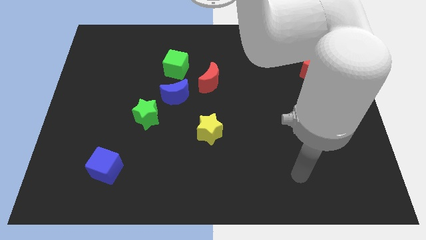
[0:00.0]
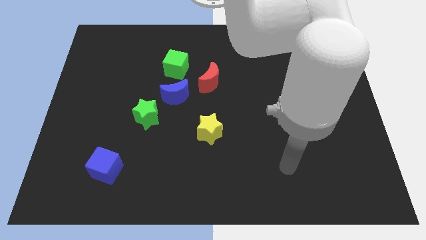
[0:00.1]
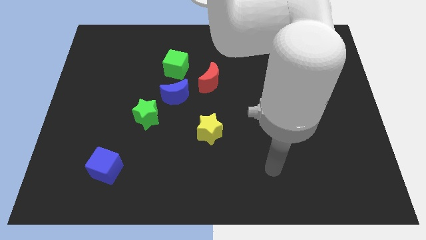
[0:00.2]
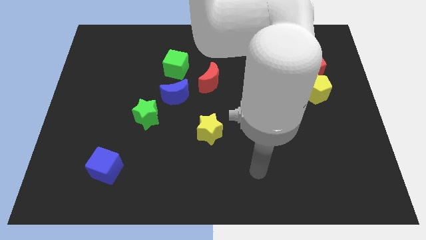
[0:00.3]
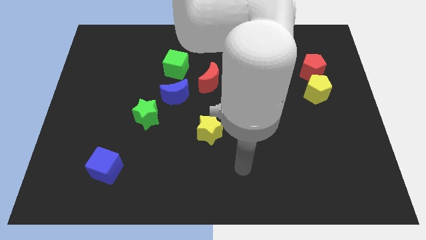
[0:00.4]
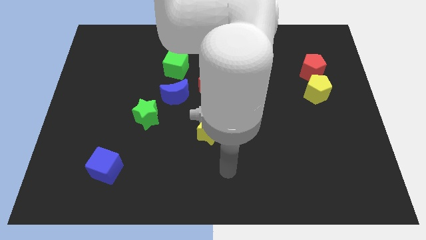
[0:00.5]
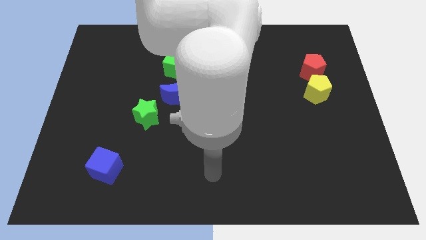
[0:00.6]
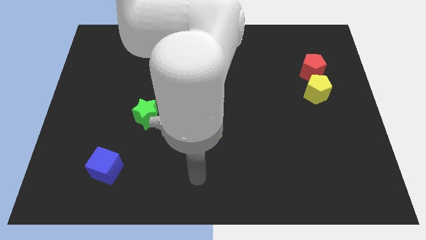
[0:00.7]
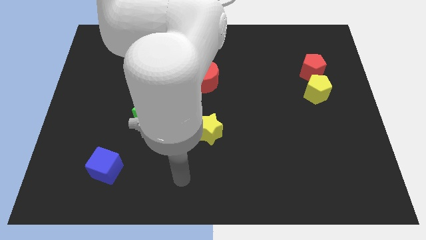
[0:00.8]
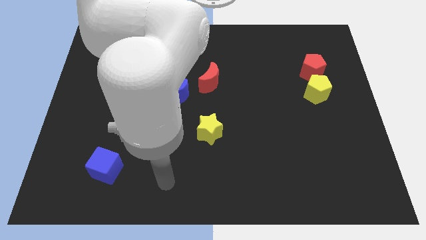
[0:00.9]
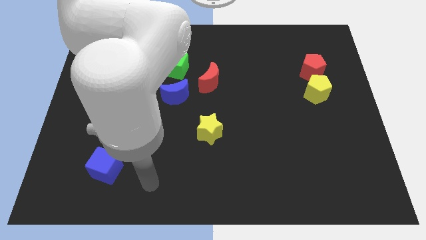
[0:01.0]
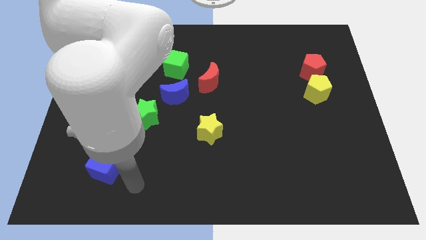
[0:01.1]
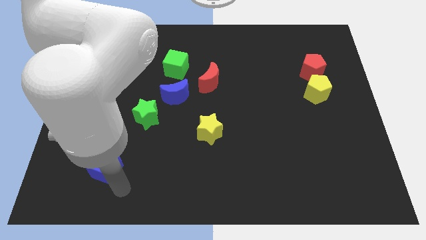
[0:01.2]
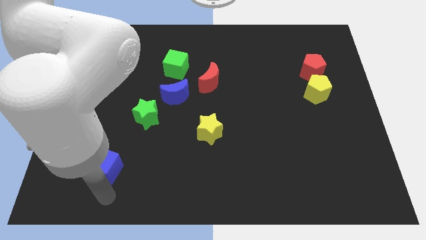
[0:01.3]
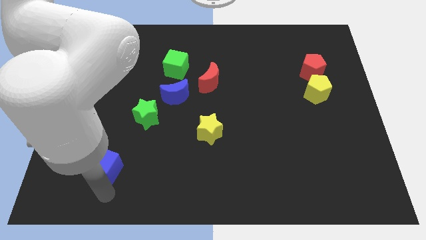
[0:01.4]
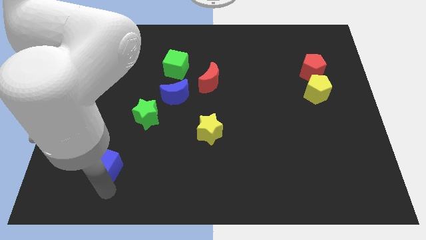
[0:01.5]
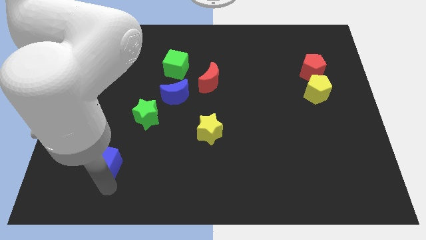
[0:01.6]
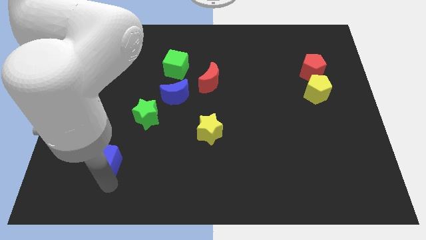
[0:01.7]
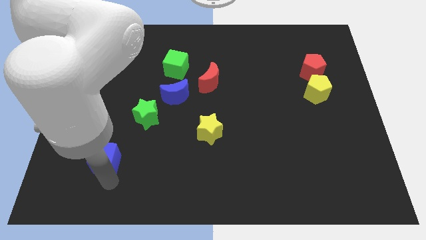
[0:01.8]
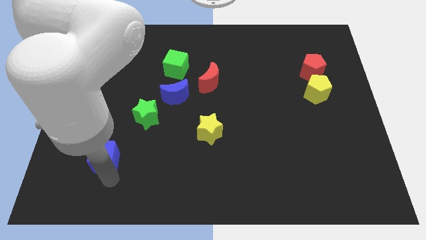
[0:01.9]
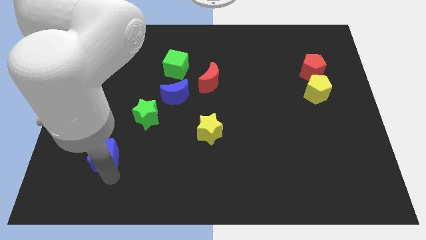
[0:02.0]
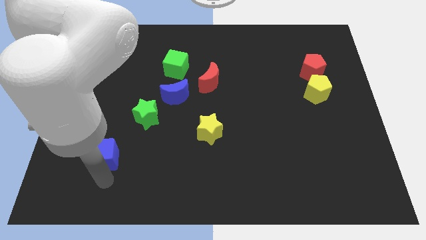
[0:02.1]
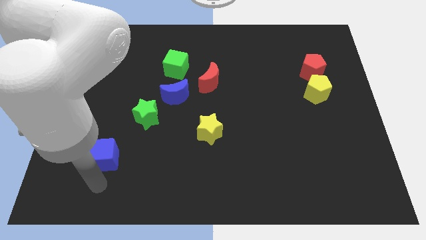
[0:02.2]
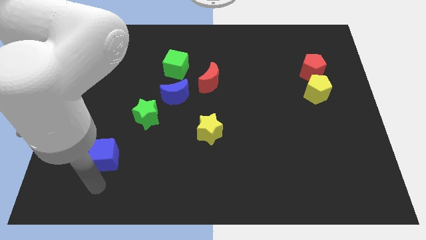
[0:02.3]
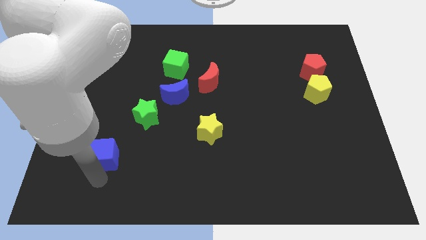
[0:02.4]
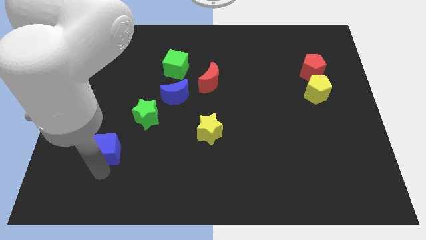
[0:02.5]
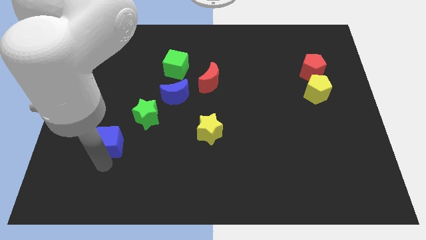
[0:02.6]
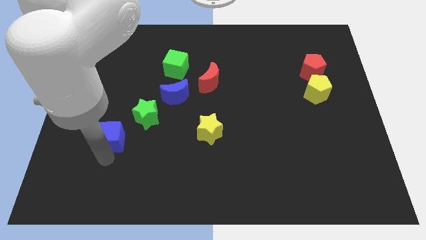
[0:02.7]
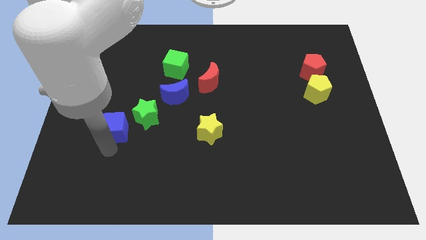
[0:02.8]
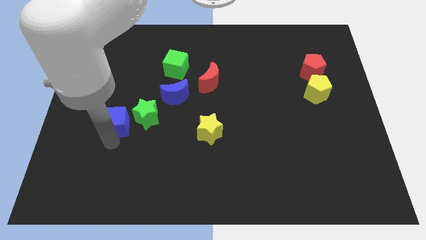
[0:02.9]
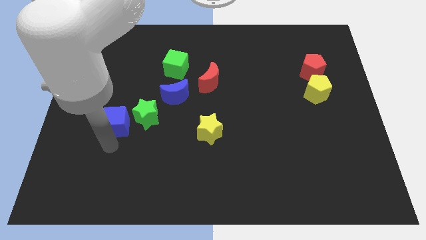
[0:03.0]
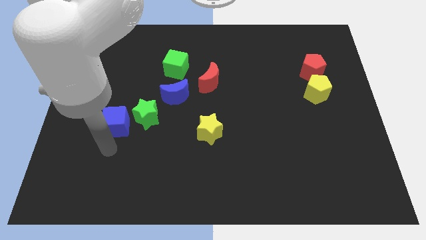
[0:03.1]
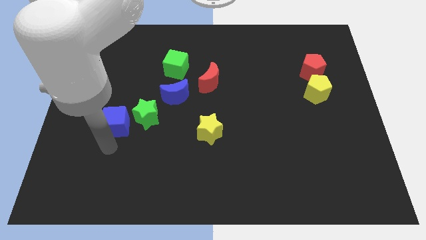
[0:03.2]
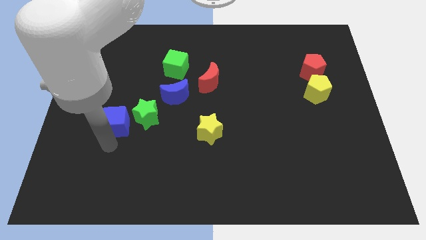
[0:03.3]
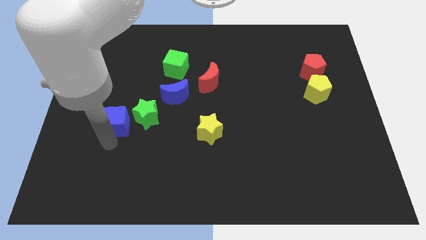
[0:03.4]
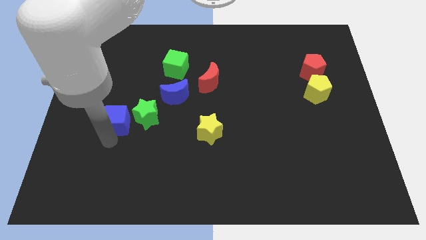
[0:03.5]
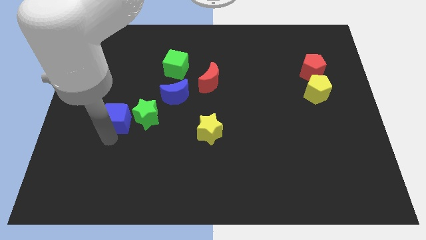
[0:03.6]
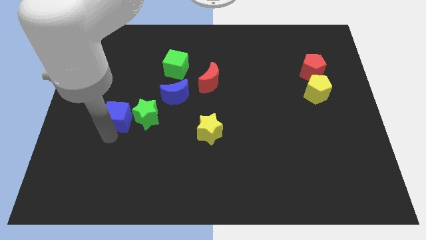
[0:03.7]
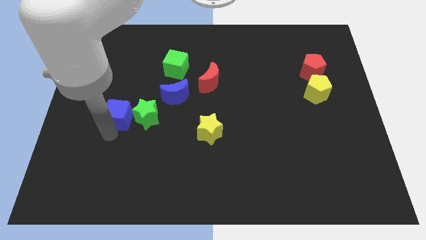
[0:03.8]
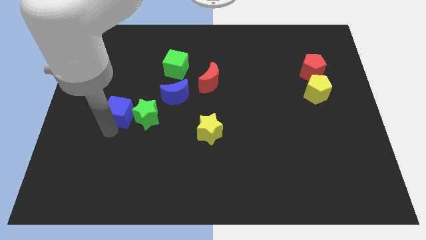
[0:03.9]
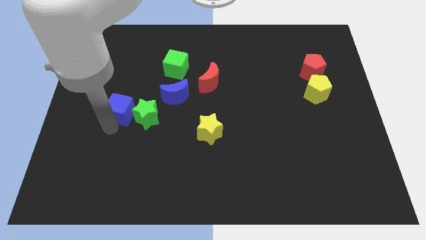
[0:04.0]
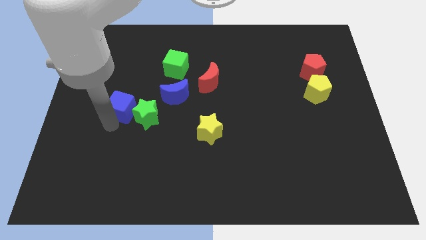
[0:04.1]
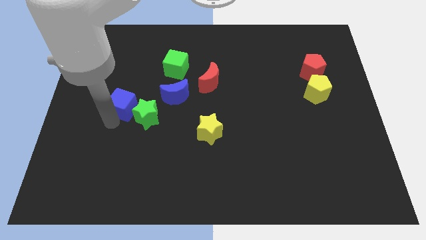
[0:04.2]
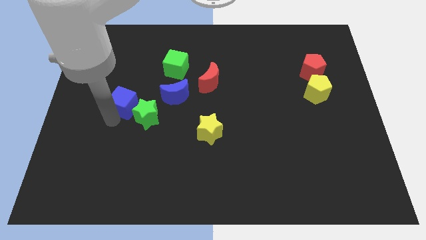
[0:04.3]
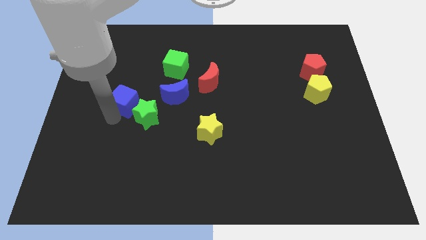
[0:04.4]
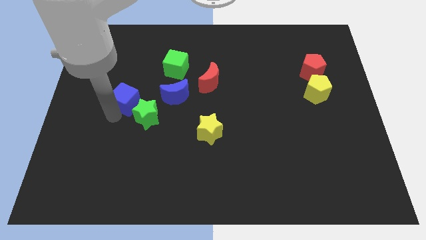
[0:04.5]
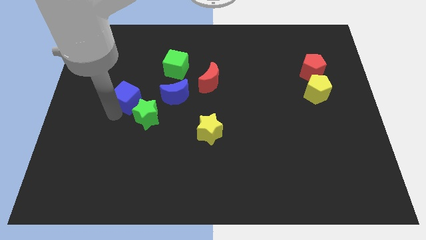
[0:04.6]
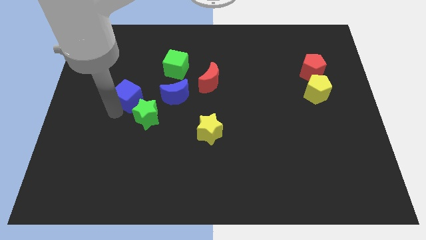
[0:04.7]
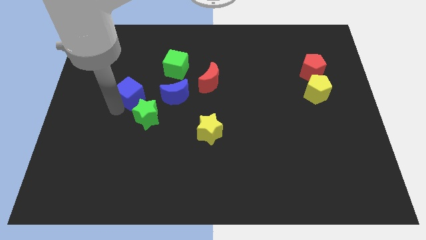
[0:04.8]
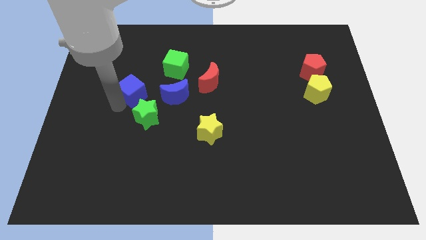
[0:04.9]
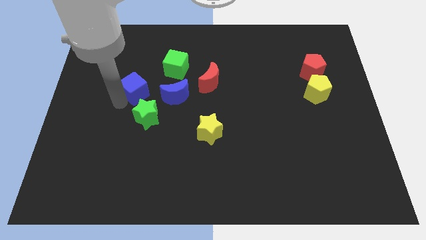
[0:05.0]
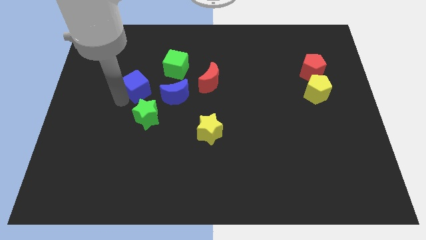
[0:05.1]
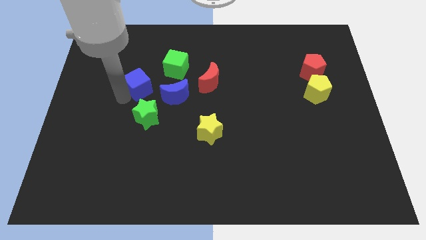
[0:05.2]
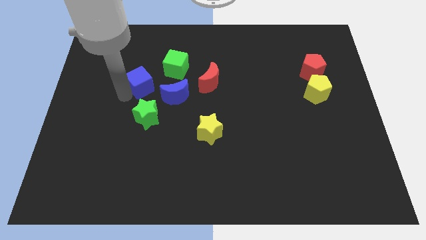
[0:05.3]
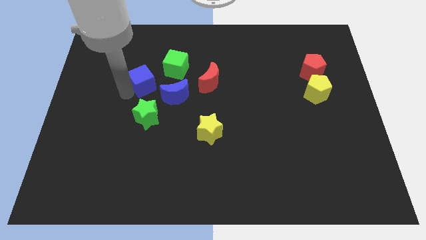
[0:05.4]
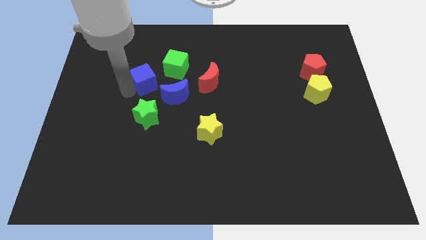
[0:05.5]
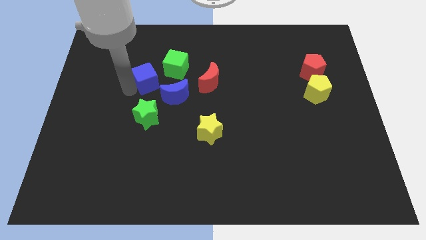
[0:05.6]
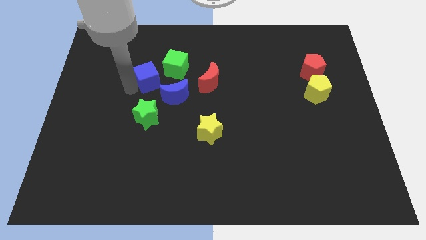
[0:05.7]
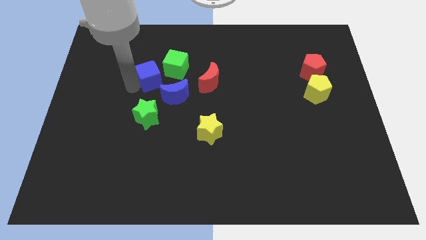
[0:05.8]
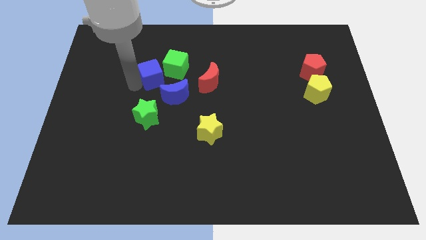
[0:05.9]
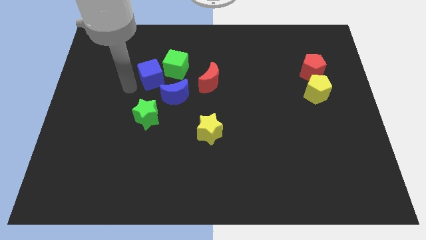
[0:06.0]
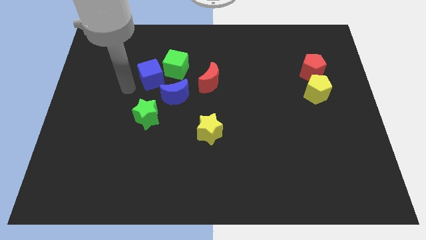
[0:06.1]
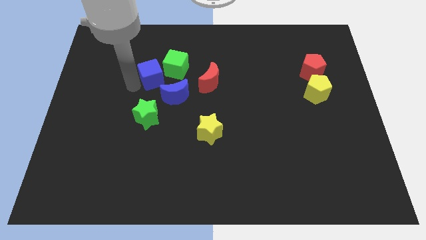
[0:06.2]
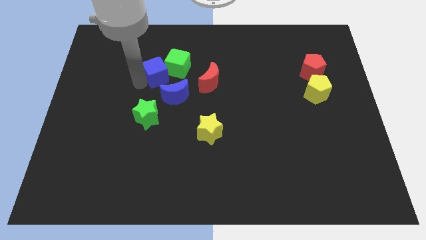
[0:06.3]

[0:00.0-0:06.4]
push the blue cube towards the green cube
